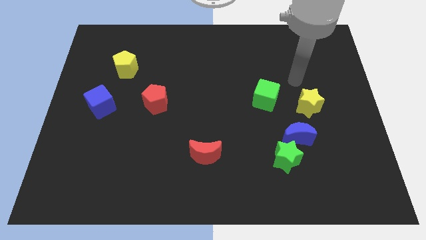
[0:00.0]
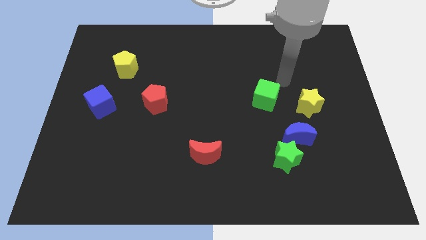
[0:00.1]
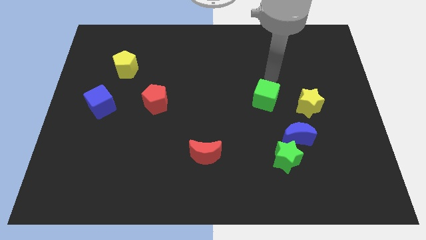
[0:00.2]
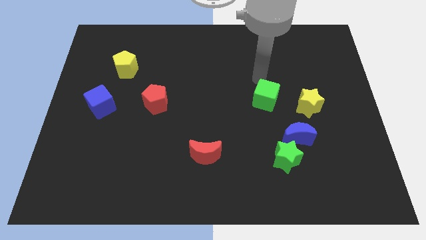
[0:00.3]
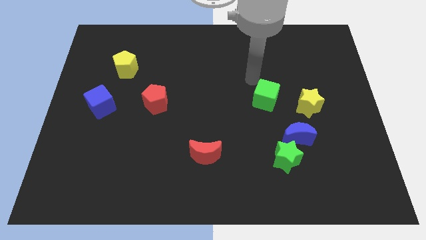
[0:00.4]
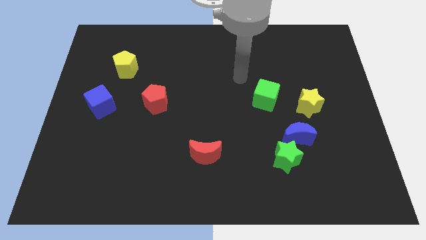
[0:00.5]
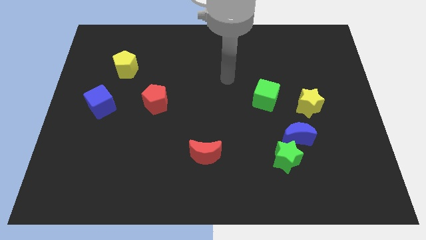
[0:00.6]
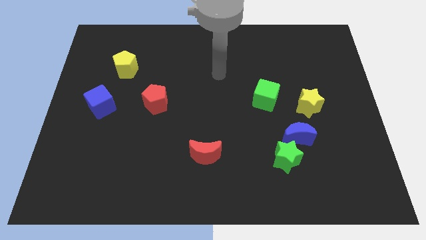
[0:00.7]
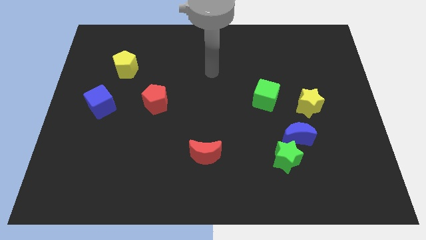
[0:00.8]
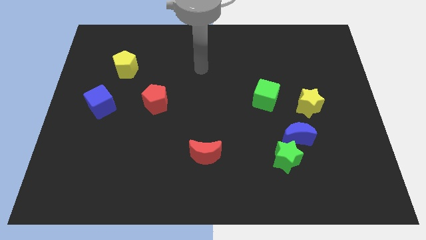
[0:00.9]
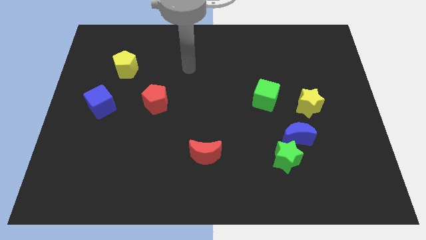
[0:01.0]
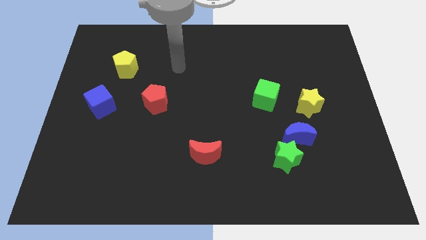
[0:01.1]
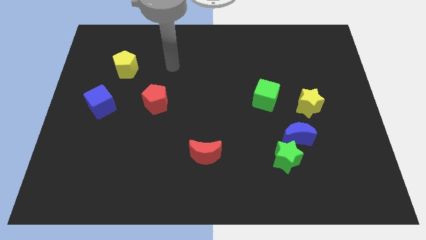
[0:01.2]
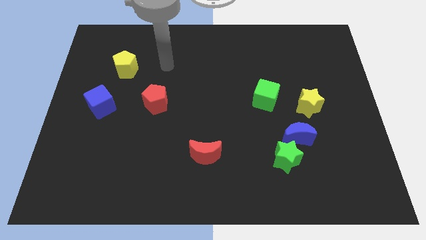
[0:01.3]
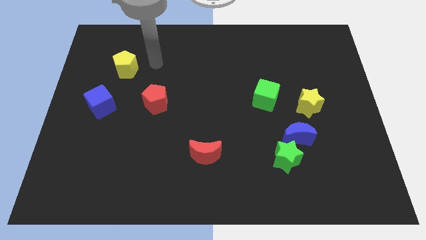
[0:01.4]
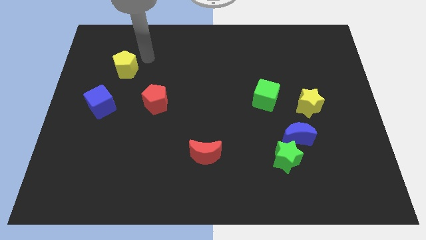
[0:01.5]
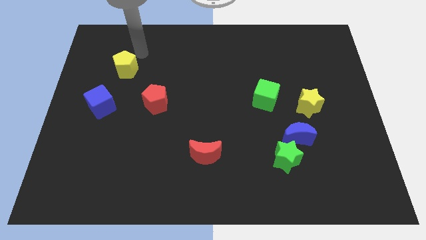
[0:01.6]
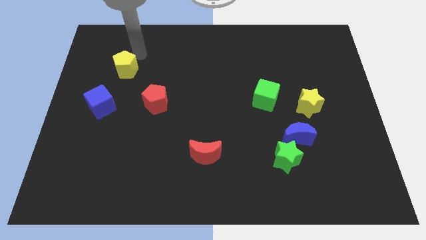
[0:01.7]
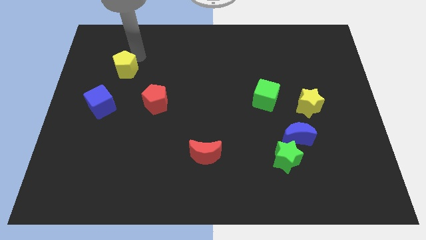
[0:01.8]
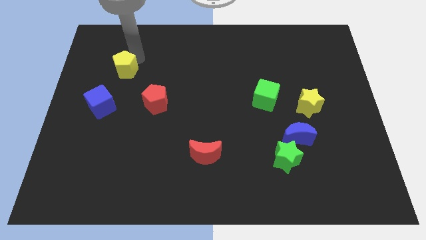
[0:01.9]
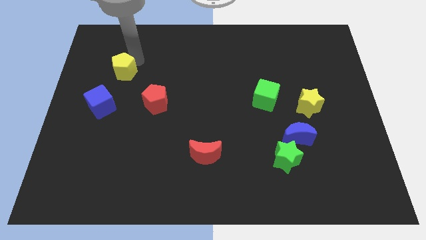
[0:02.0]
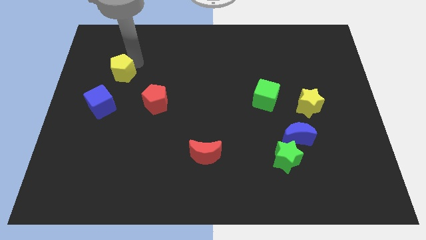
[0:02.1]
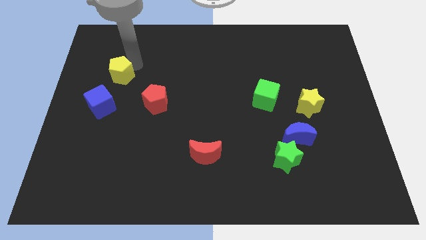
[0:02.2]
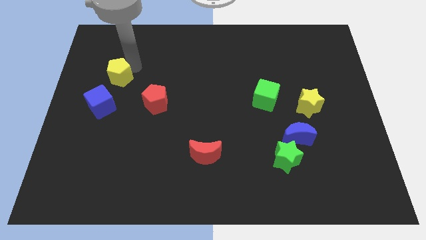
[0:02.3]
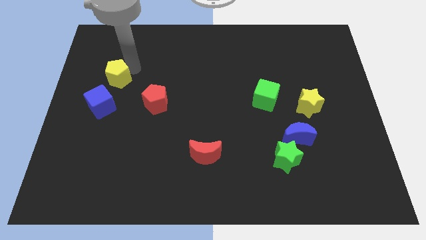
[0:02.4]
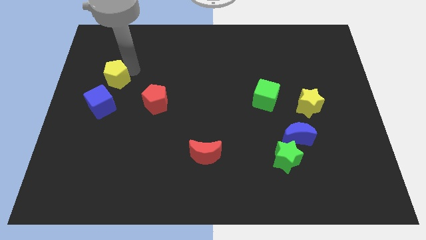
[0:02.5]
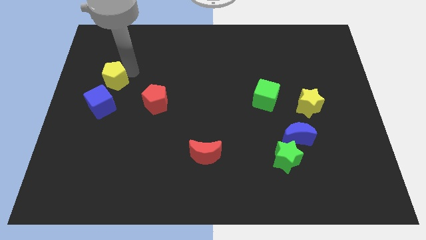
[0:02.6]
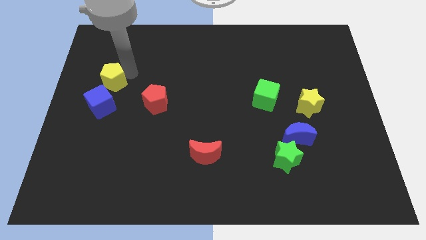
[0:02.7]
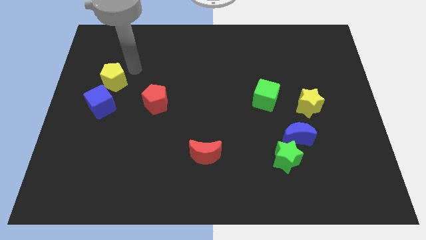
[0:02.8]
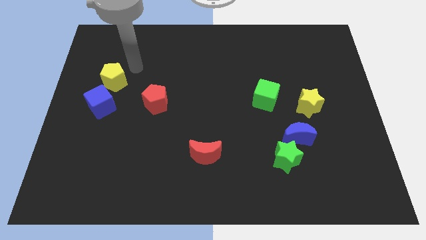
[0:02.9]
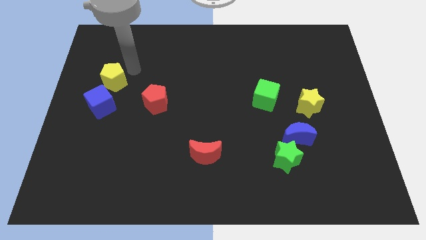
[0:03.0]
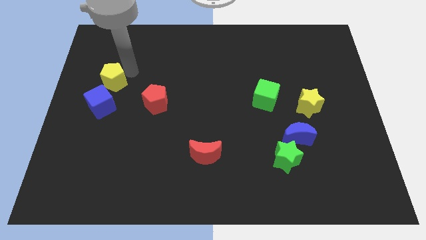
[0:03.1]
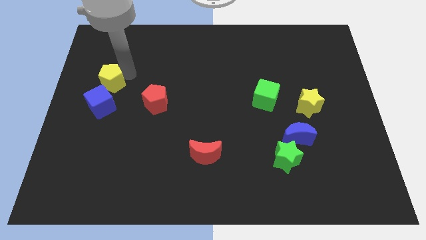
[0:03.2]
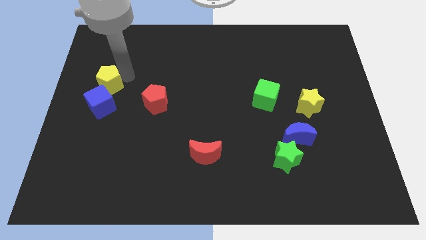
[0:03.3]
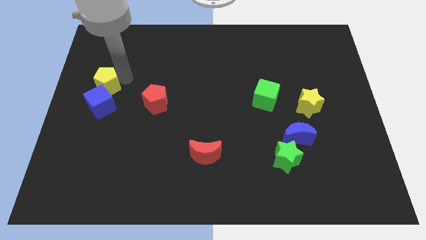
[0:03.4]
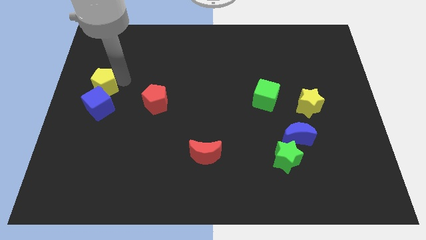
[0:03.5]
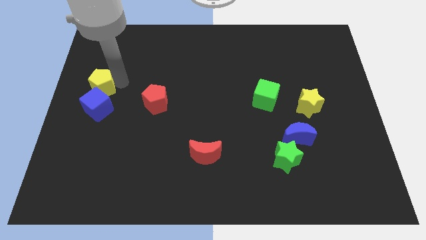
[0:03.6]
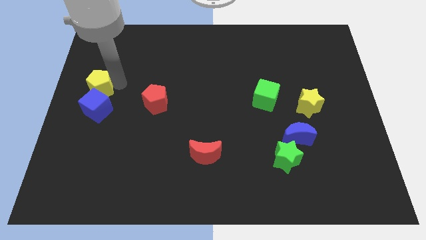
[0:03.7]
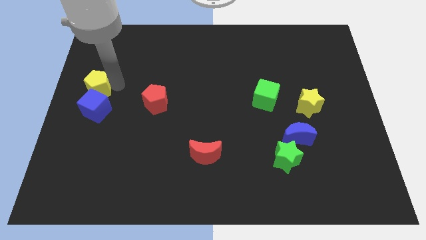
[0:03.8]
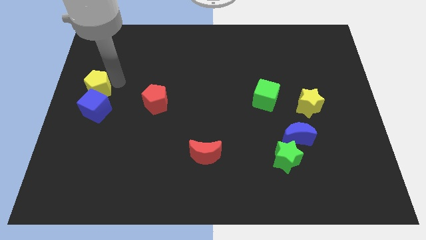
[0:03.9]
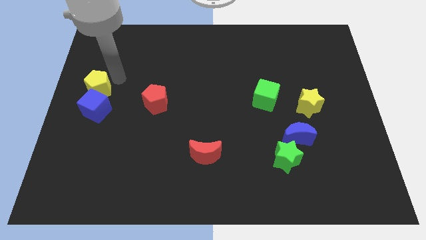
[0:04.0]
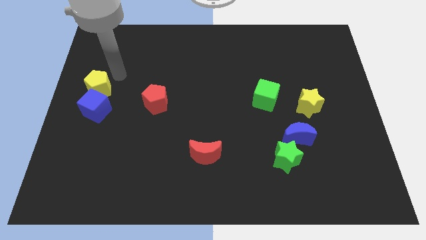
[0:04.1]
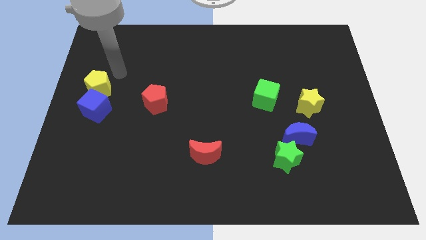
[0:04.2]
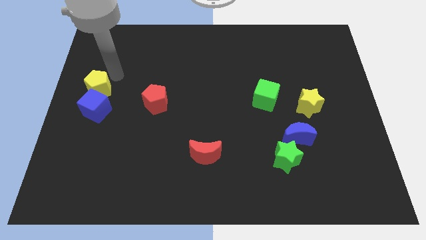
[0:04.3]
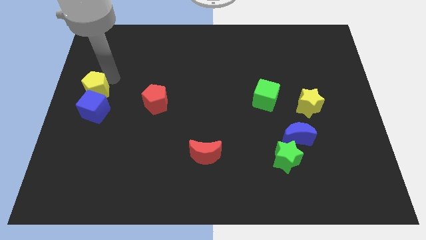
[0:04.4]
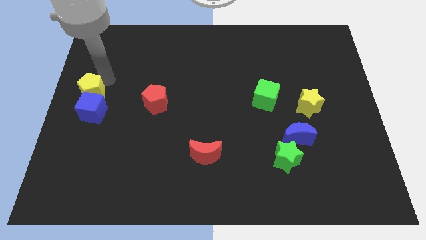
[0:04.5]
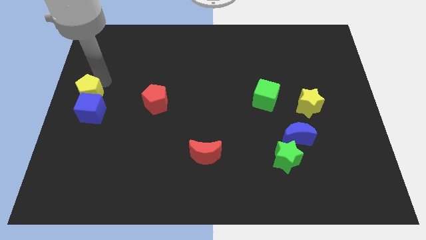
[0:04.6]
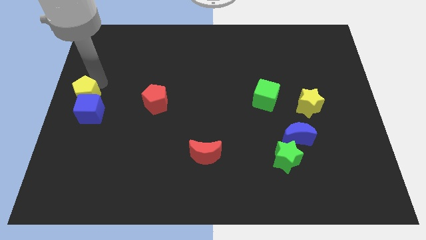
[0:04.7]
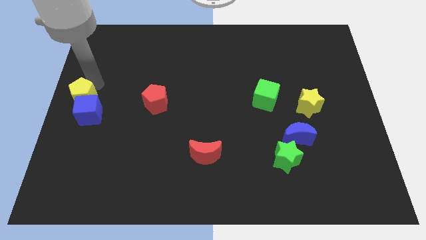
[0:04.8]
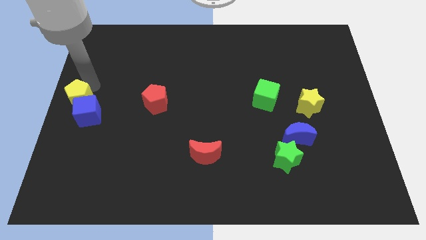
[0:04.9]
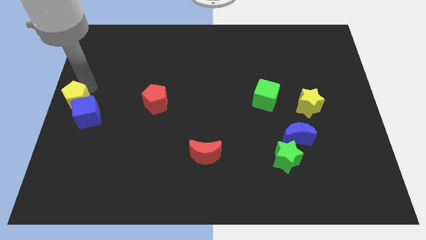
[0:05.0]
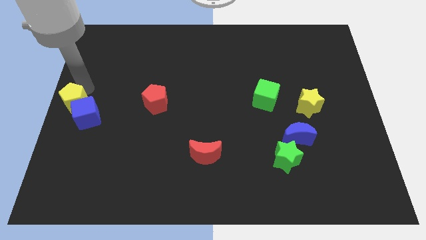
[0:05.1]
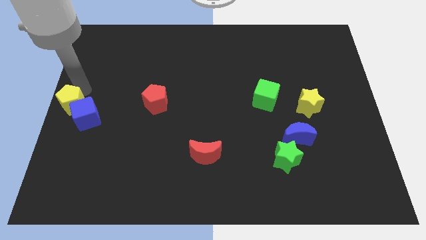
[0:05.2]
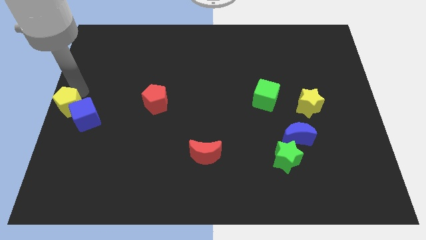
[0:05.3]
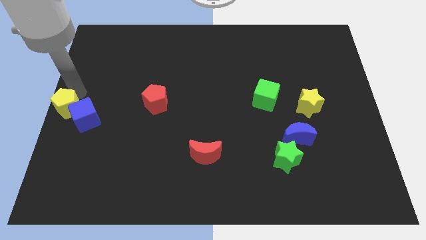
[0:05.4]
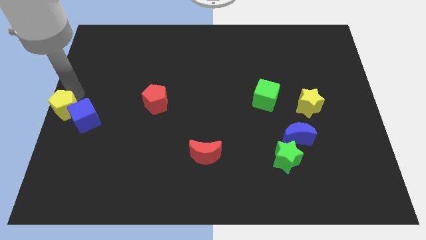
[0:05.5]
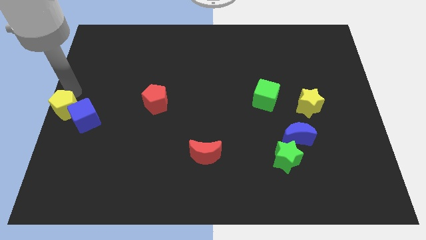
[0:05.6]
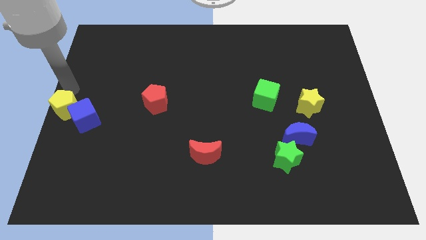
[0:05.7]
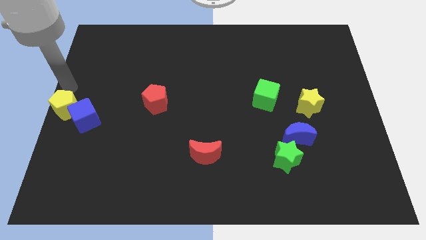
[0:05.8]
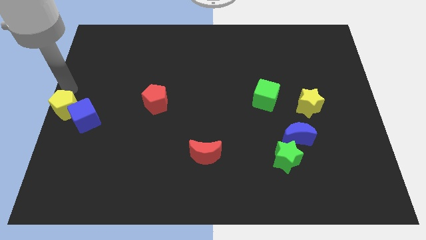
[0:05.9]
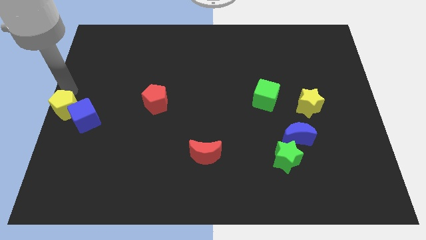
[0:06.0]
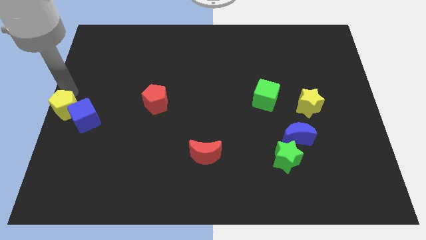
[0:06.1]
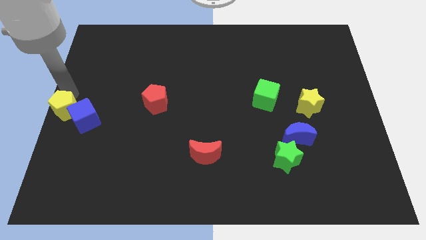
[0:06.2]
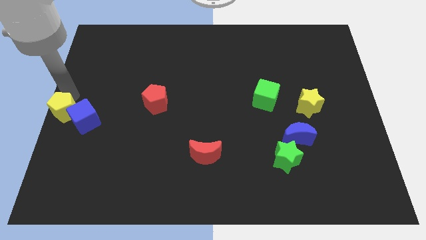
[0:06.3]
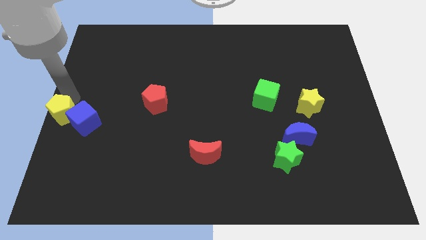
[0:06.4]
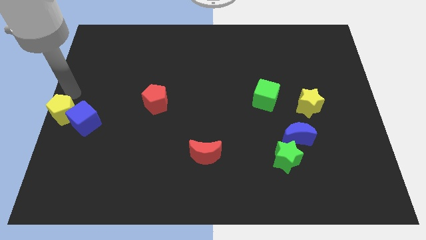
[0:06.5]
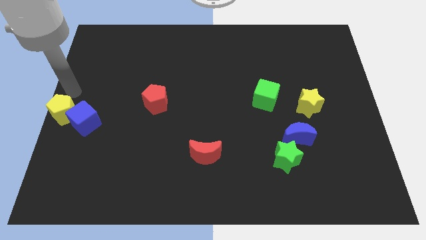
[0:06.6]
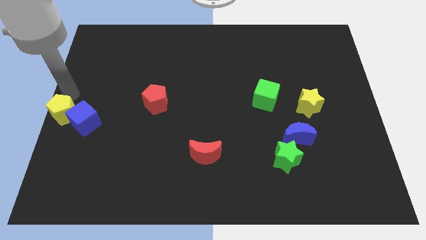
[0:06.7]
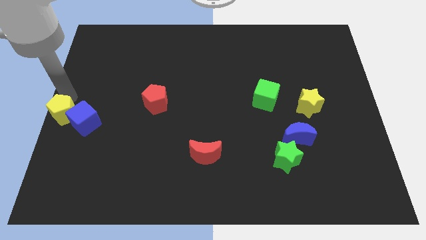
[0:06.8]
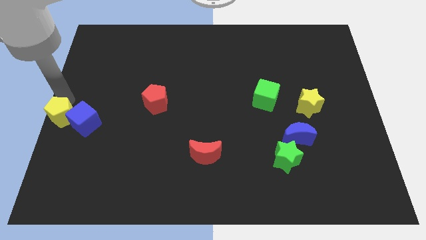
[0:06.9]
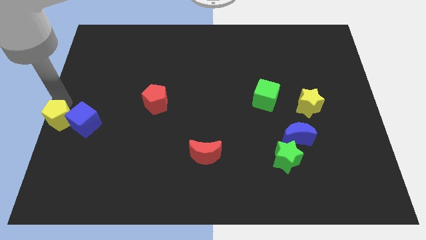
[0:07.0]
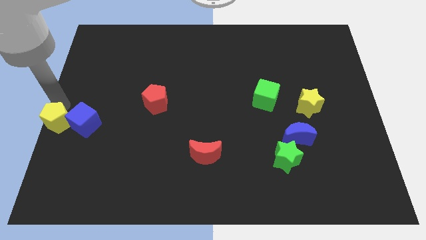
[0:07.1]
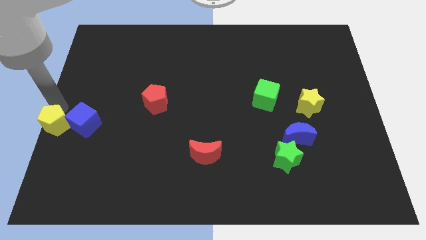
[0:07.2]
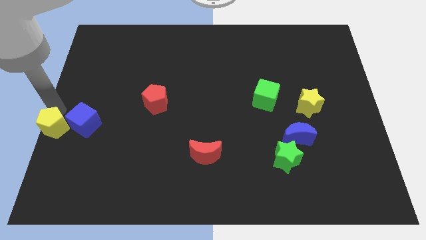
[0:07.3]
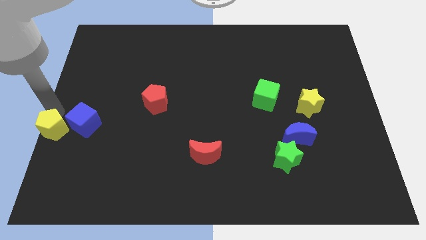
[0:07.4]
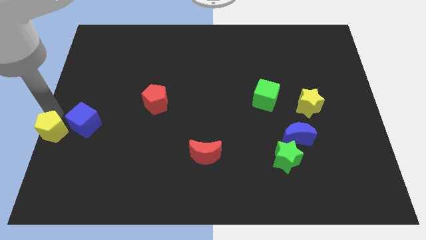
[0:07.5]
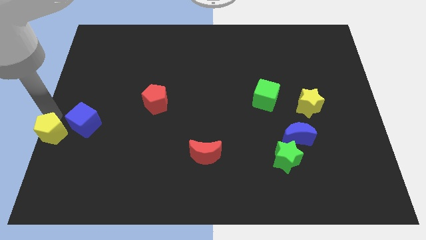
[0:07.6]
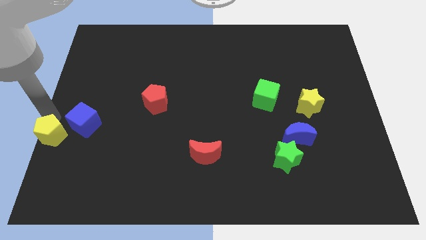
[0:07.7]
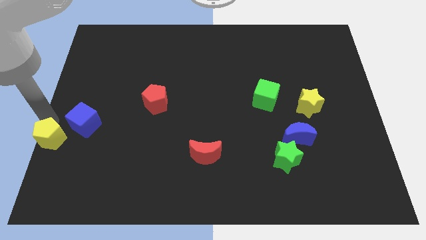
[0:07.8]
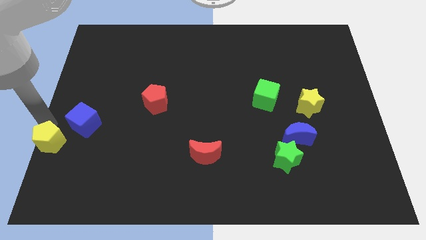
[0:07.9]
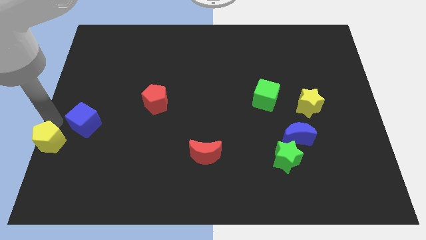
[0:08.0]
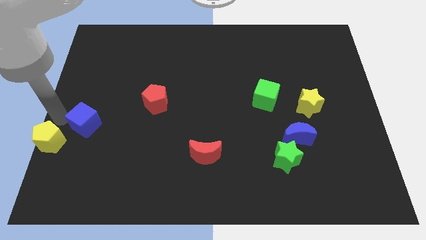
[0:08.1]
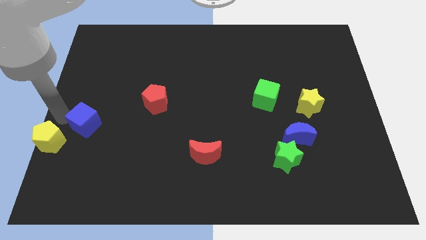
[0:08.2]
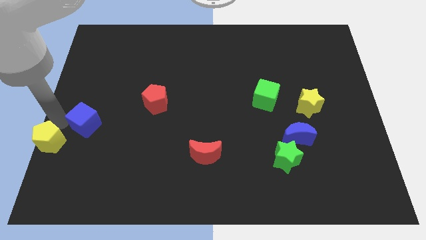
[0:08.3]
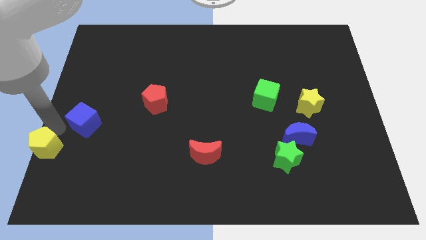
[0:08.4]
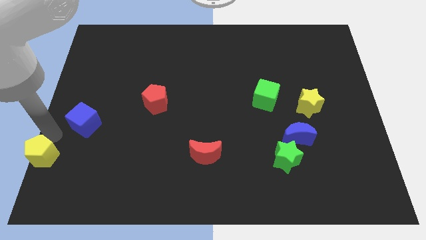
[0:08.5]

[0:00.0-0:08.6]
put the yellow pentagon to the bottom left corner
